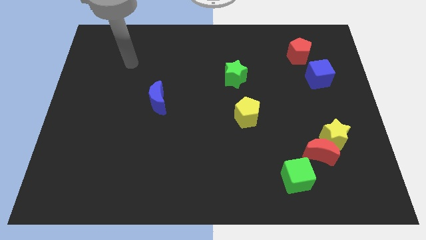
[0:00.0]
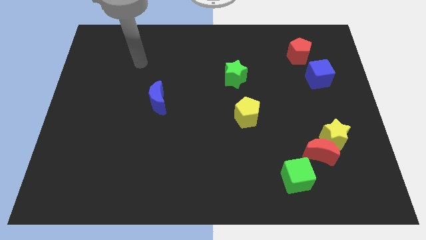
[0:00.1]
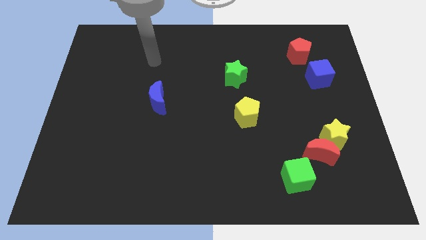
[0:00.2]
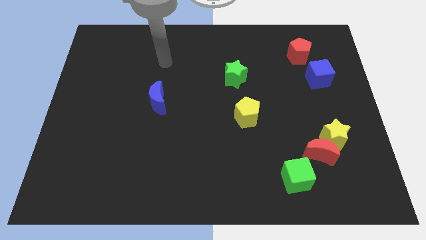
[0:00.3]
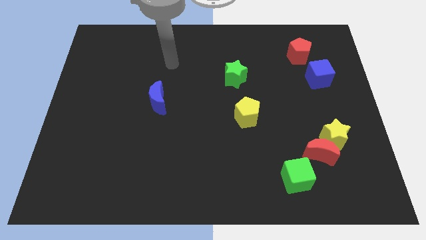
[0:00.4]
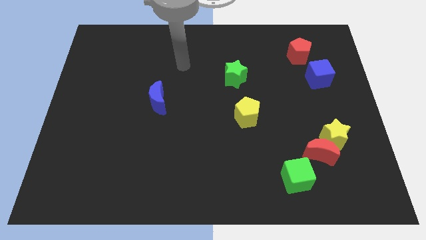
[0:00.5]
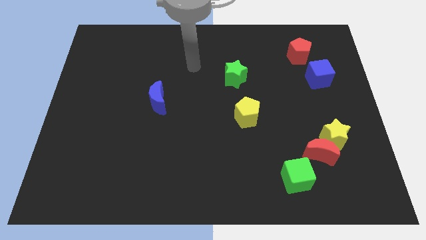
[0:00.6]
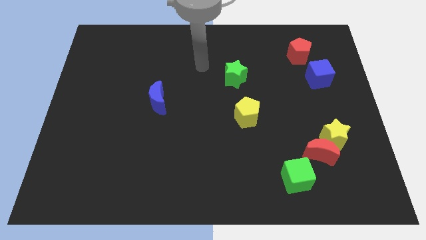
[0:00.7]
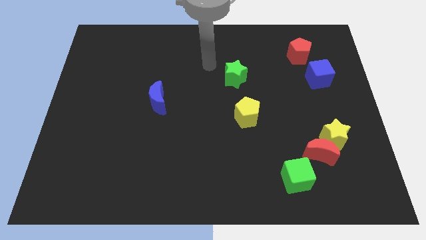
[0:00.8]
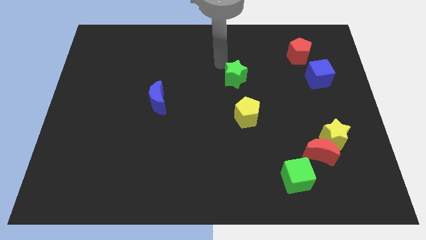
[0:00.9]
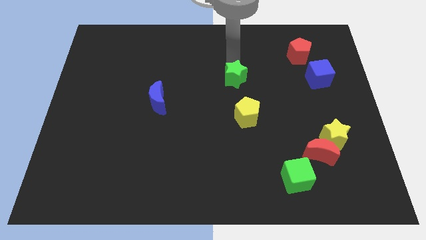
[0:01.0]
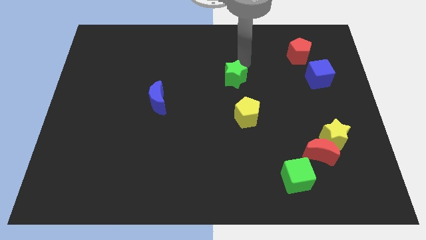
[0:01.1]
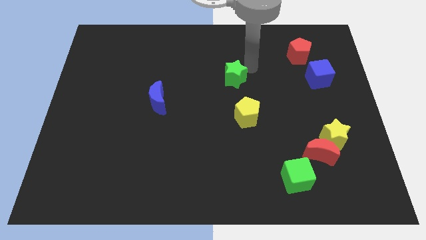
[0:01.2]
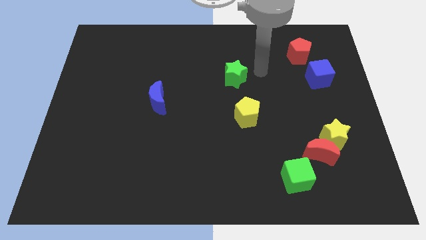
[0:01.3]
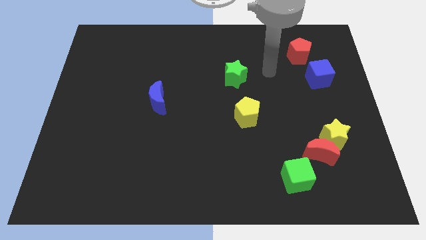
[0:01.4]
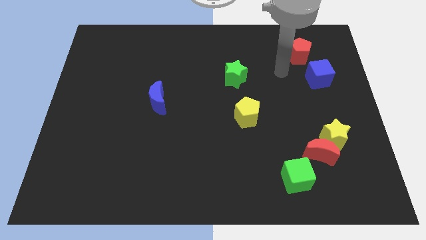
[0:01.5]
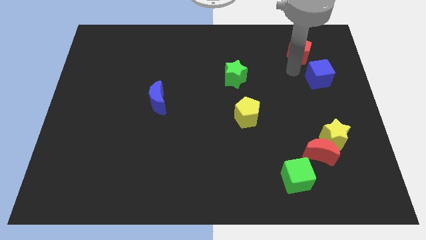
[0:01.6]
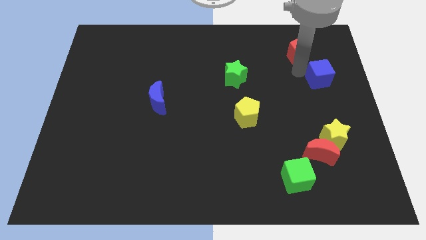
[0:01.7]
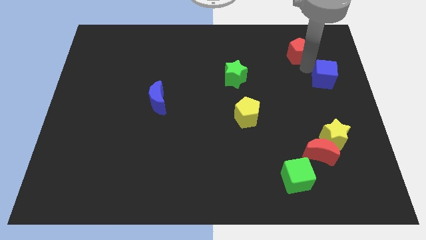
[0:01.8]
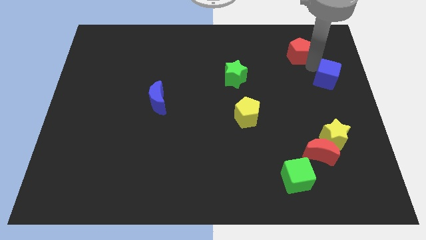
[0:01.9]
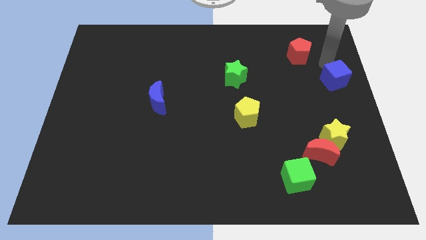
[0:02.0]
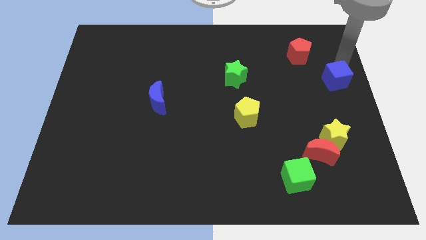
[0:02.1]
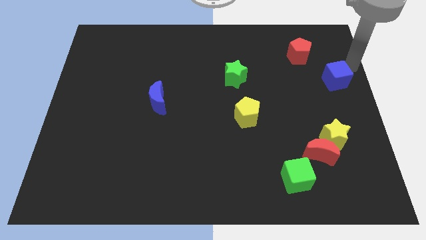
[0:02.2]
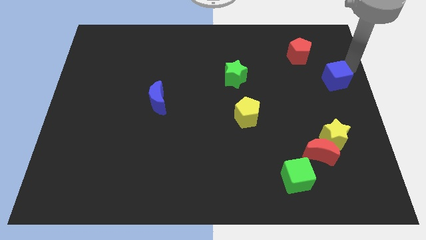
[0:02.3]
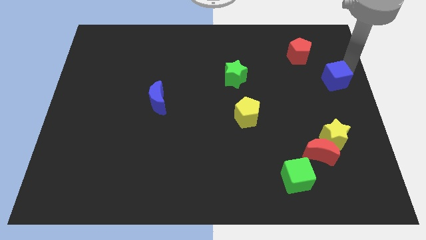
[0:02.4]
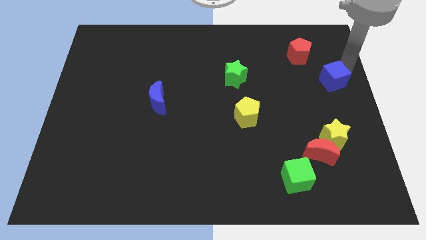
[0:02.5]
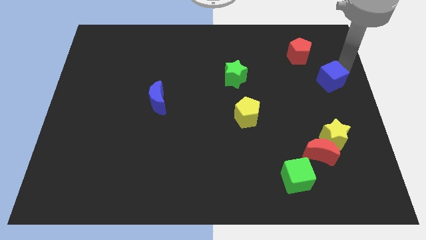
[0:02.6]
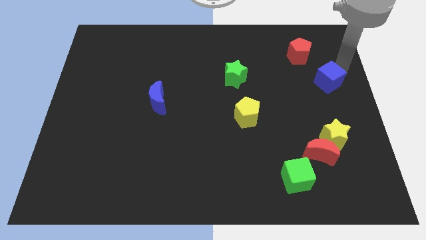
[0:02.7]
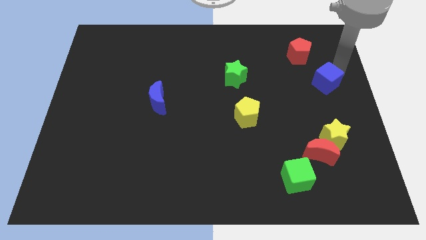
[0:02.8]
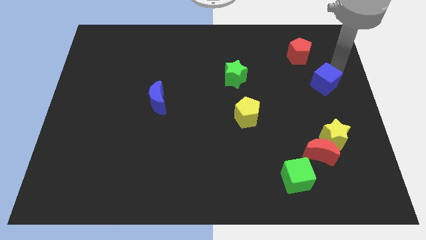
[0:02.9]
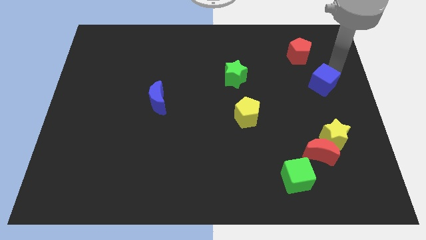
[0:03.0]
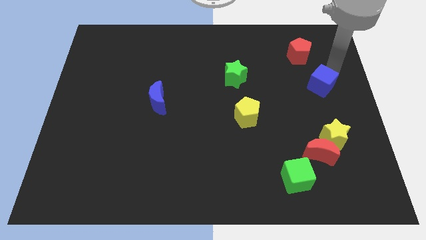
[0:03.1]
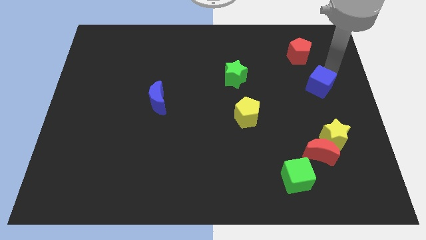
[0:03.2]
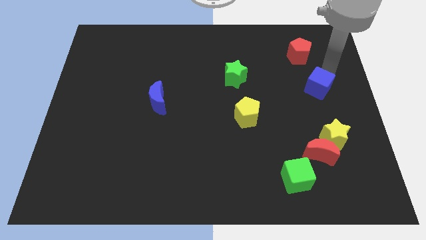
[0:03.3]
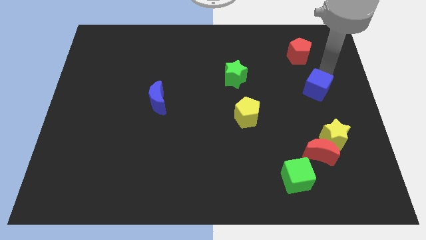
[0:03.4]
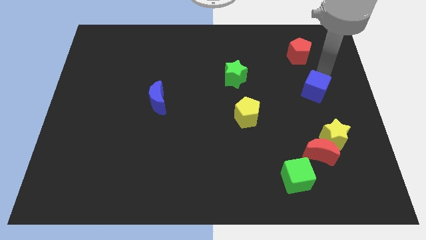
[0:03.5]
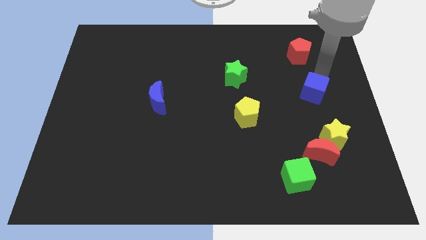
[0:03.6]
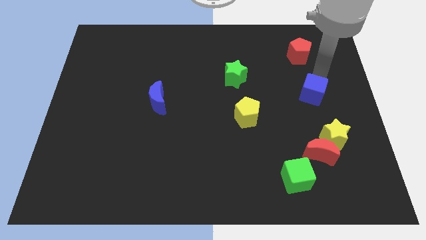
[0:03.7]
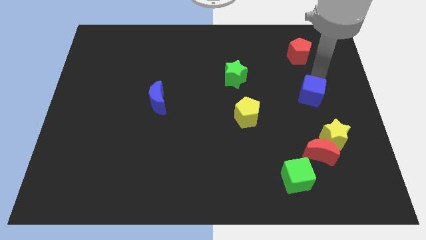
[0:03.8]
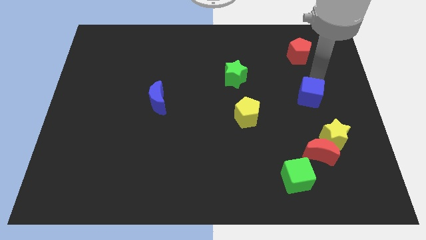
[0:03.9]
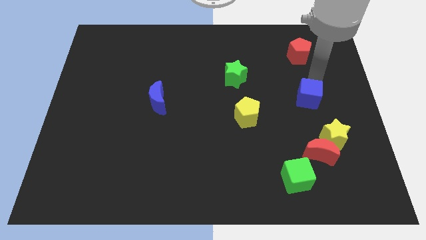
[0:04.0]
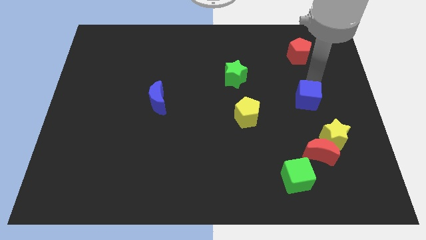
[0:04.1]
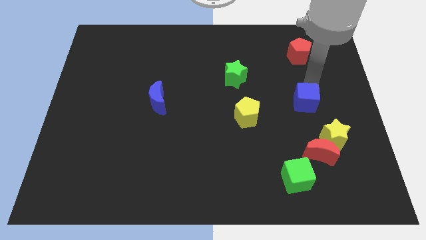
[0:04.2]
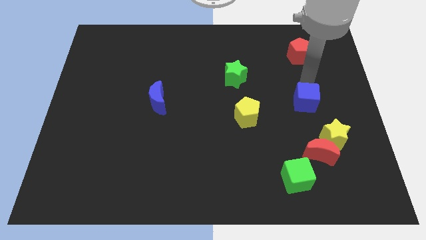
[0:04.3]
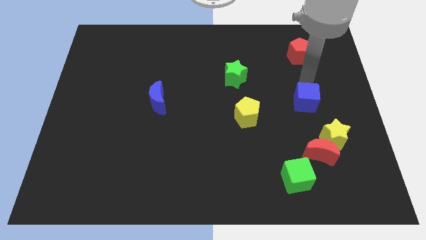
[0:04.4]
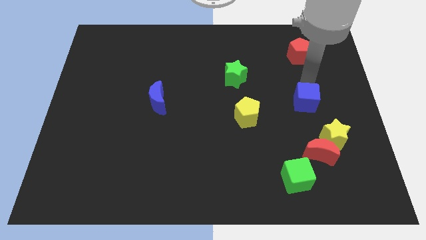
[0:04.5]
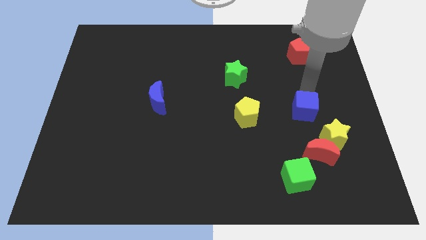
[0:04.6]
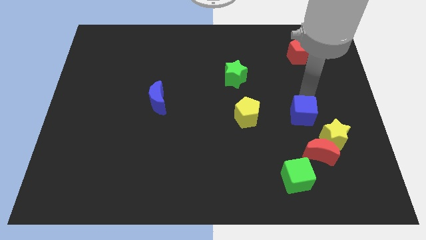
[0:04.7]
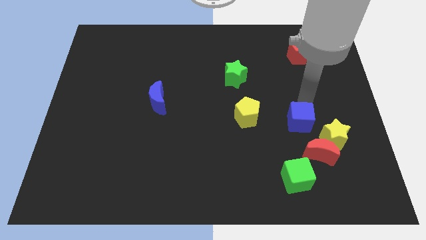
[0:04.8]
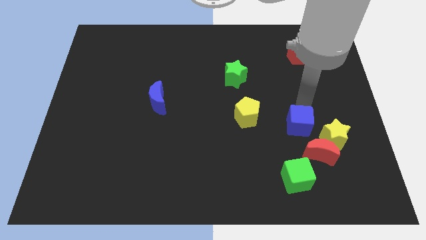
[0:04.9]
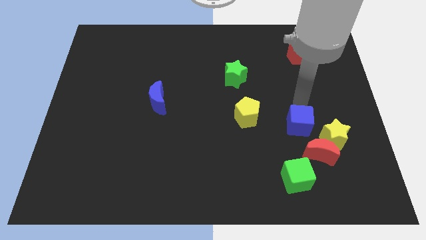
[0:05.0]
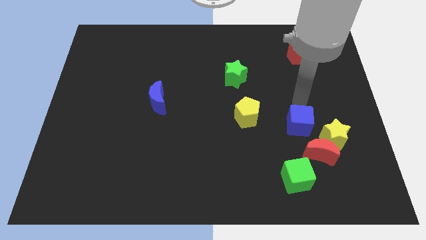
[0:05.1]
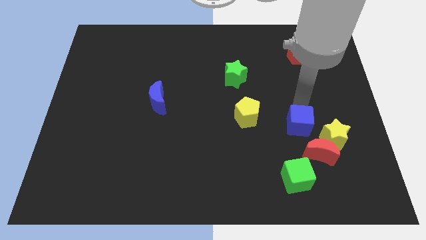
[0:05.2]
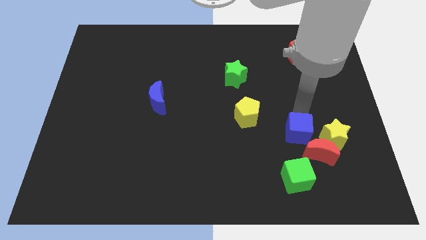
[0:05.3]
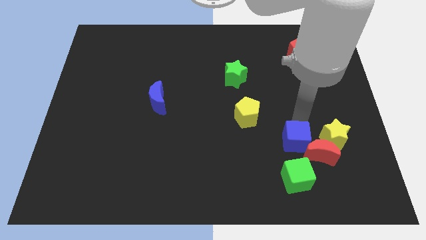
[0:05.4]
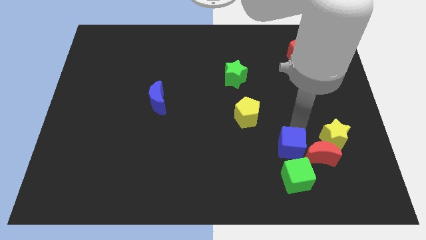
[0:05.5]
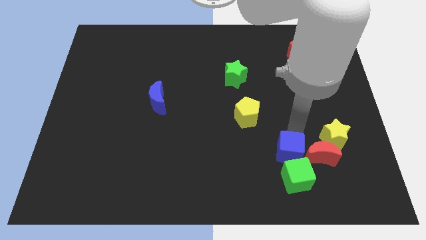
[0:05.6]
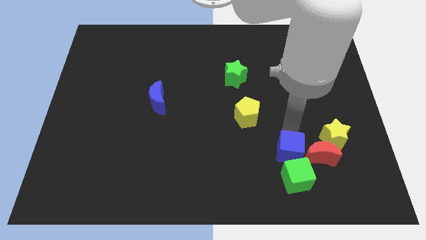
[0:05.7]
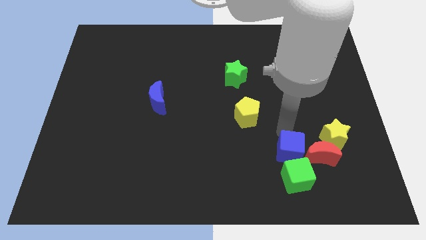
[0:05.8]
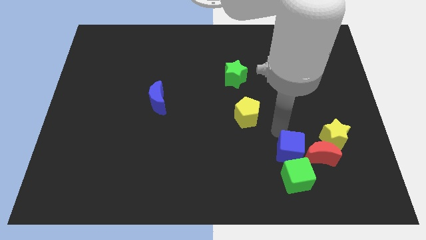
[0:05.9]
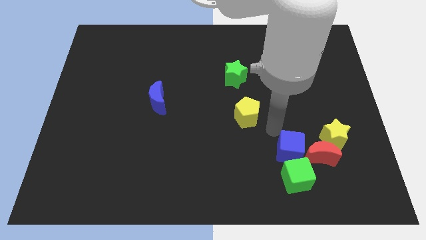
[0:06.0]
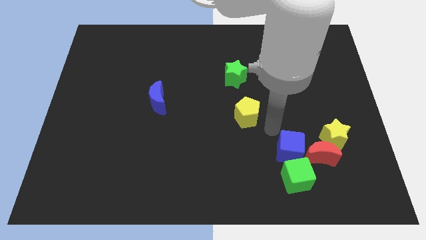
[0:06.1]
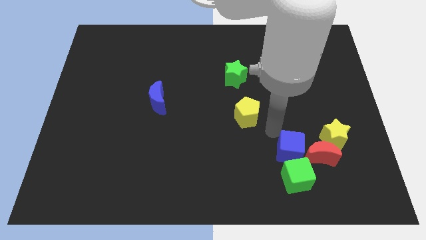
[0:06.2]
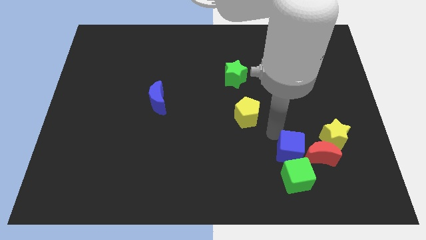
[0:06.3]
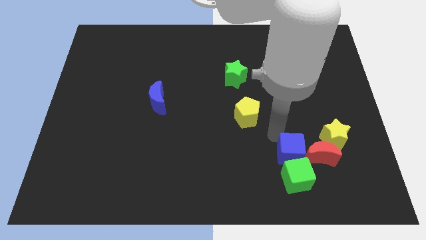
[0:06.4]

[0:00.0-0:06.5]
push the blue cube close to the green cube

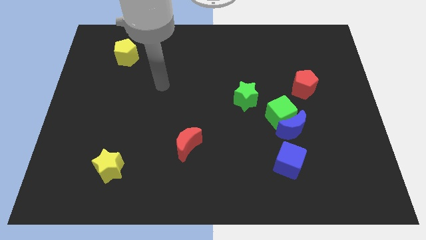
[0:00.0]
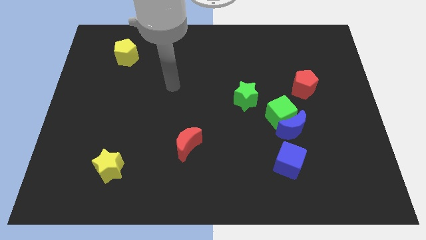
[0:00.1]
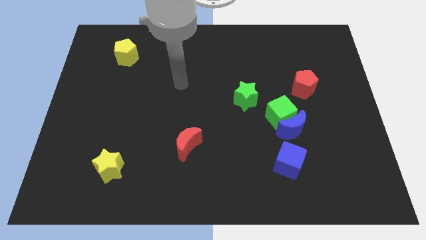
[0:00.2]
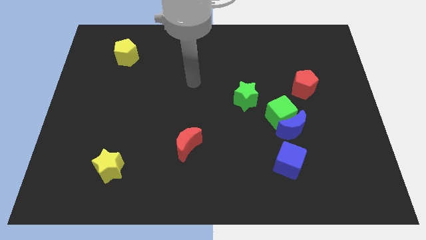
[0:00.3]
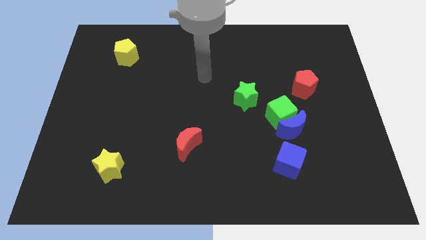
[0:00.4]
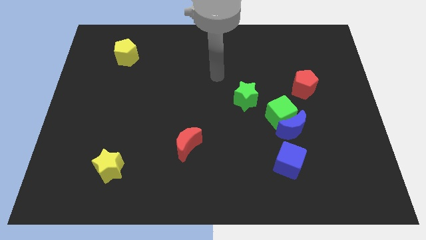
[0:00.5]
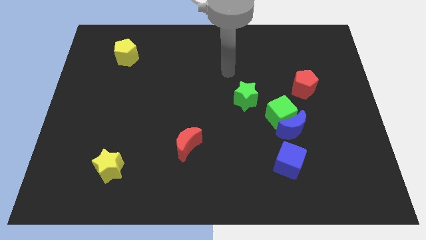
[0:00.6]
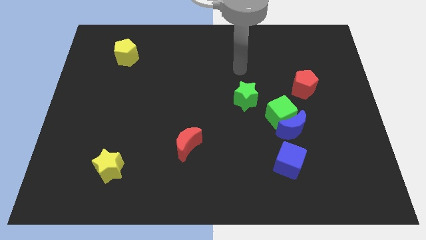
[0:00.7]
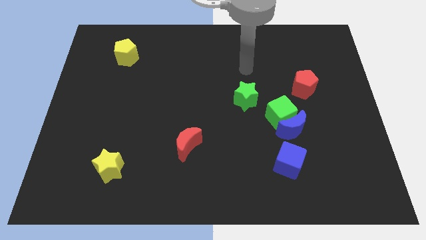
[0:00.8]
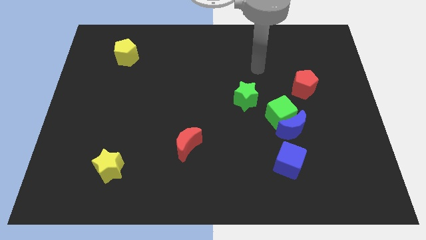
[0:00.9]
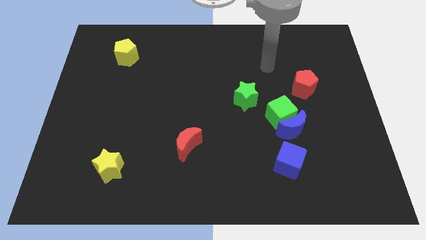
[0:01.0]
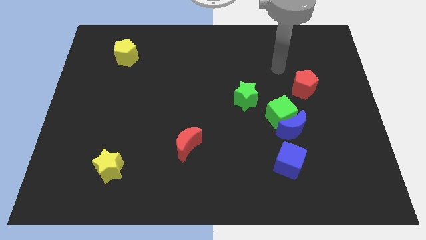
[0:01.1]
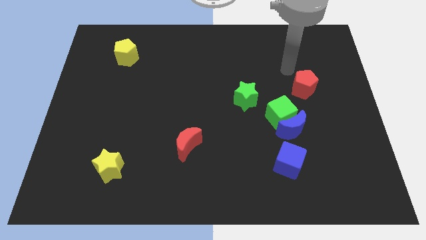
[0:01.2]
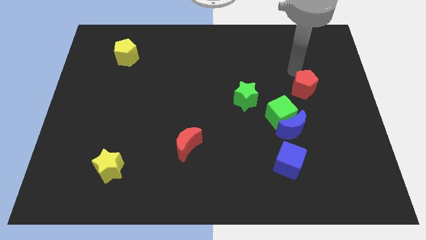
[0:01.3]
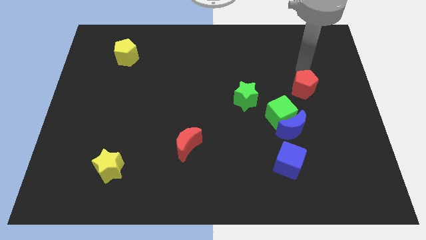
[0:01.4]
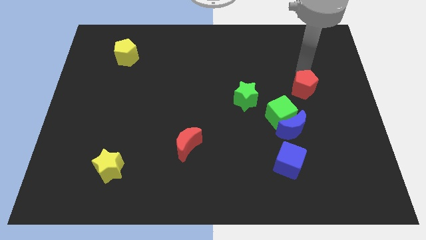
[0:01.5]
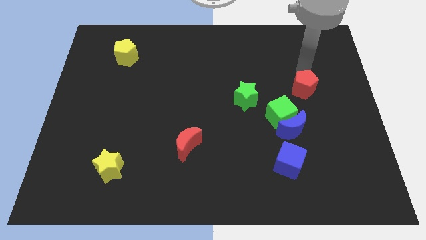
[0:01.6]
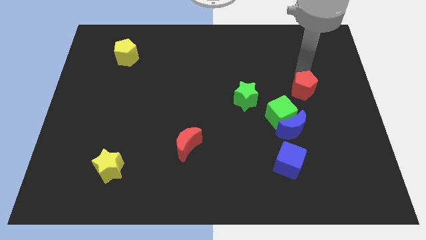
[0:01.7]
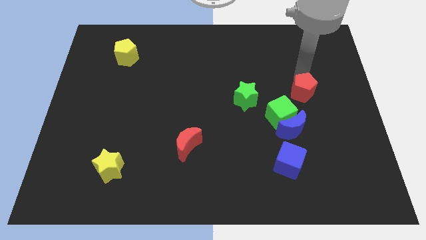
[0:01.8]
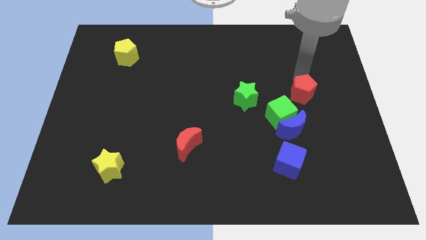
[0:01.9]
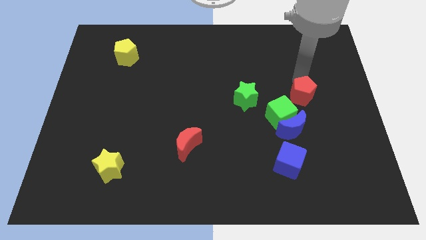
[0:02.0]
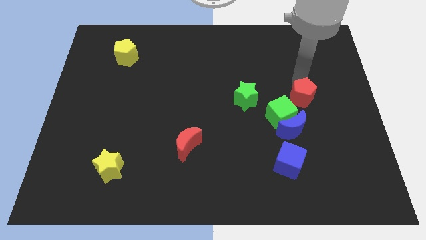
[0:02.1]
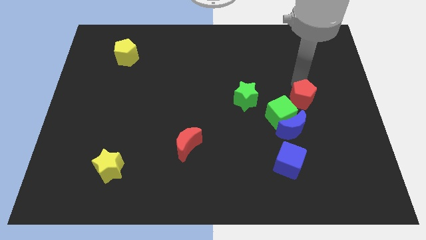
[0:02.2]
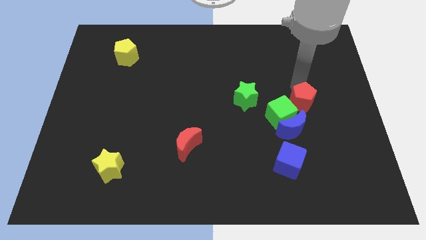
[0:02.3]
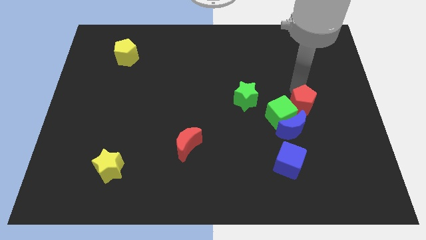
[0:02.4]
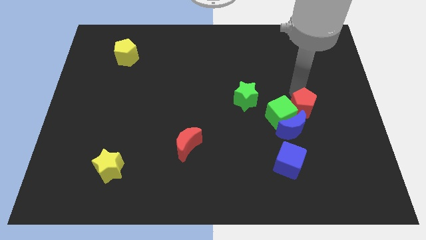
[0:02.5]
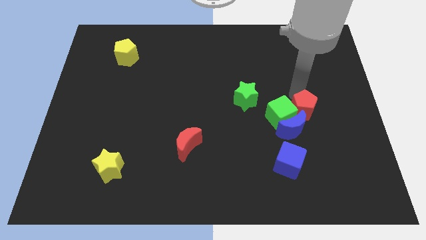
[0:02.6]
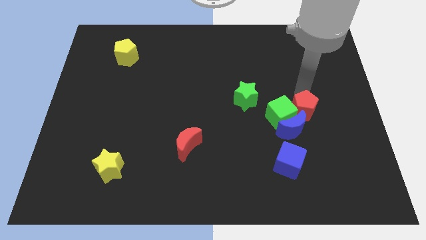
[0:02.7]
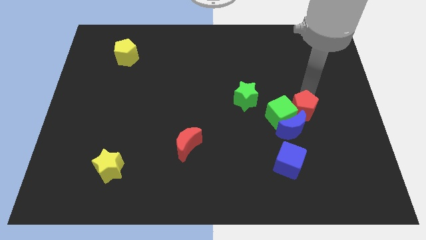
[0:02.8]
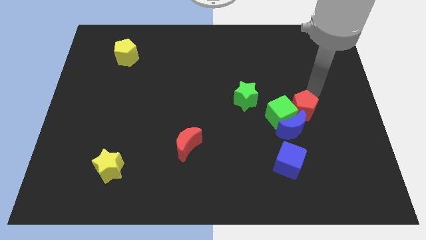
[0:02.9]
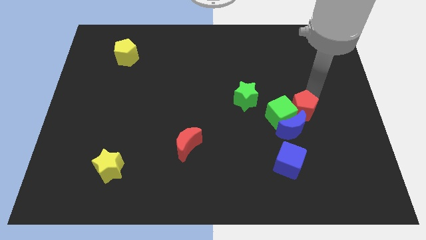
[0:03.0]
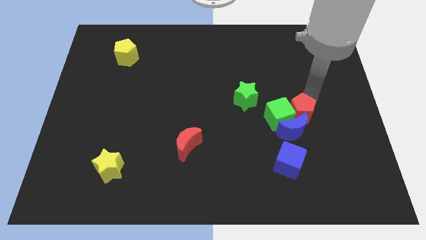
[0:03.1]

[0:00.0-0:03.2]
put the red pentagon towards the blue moon
